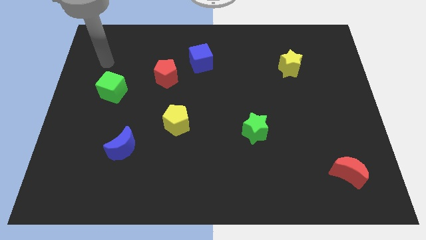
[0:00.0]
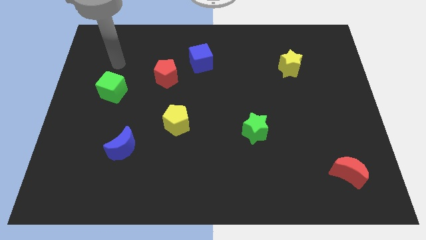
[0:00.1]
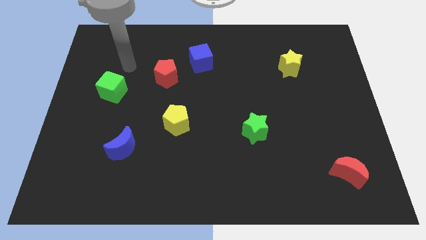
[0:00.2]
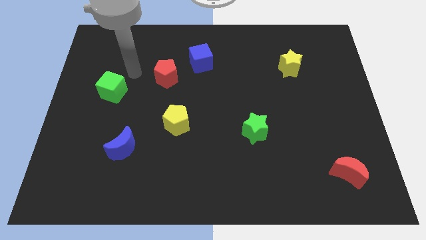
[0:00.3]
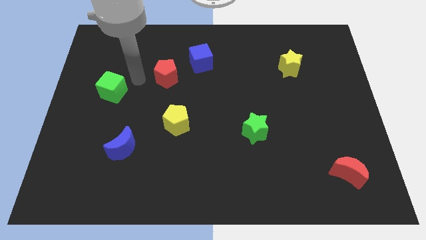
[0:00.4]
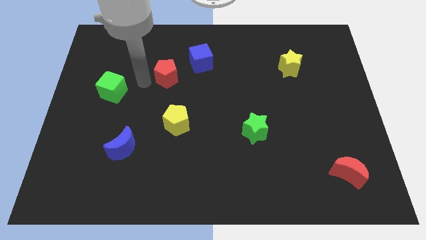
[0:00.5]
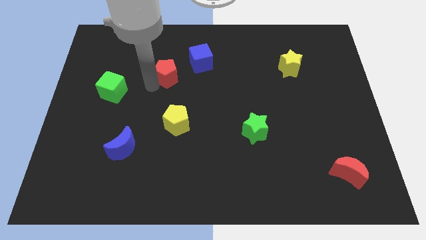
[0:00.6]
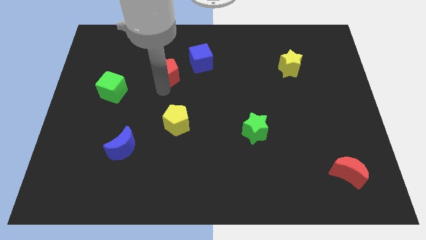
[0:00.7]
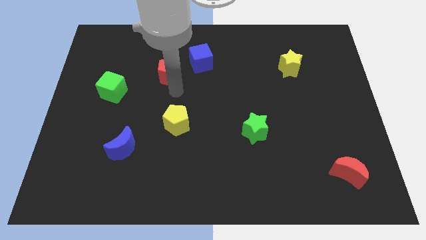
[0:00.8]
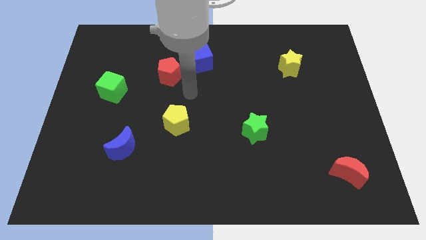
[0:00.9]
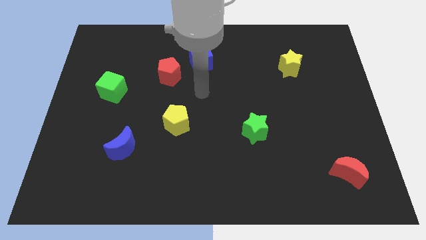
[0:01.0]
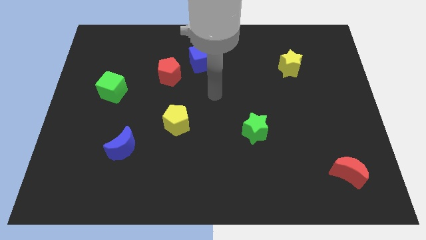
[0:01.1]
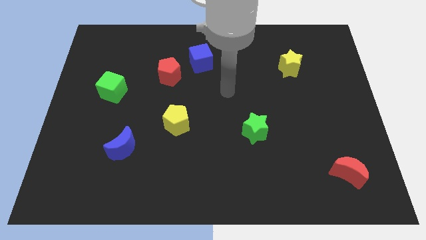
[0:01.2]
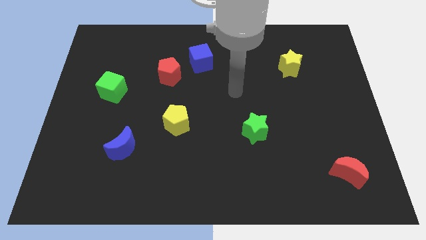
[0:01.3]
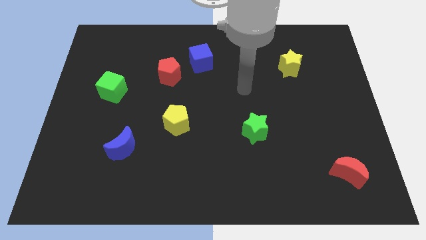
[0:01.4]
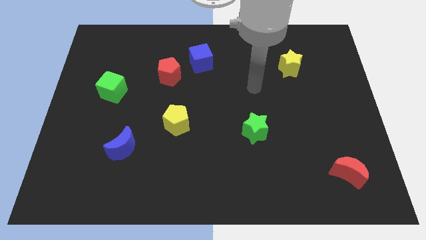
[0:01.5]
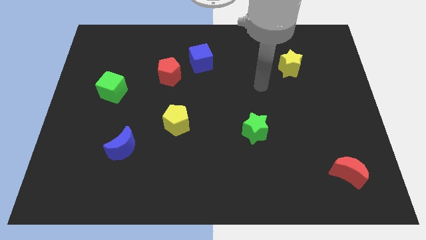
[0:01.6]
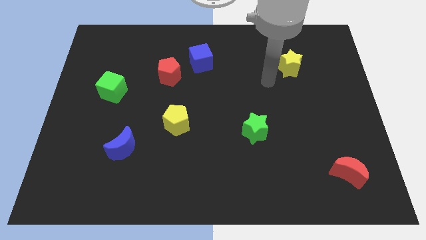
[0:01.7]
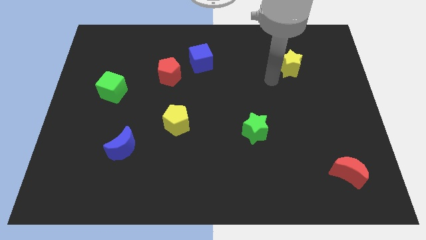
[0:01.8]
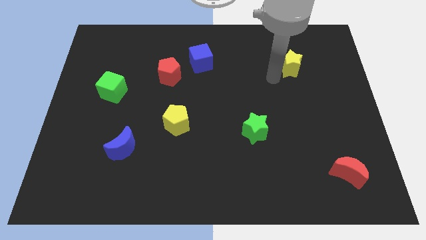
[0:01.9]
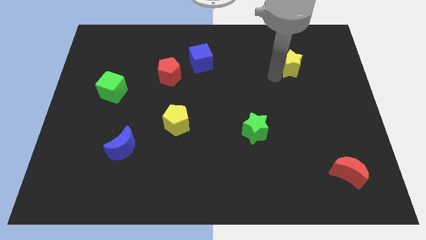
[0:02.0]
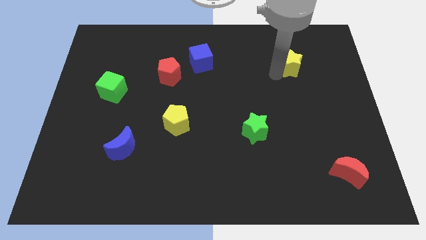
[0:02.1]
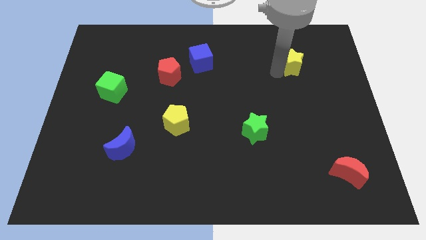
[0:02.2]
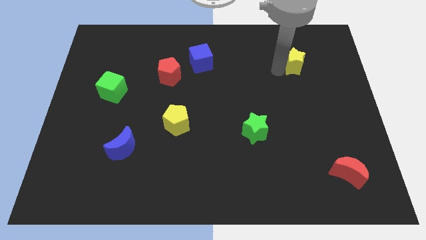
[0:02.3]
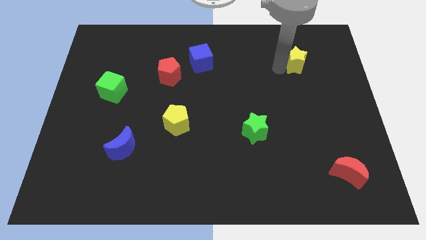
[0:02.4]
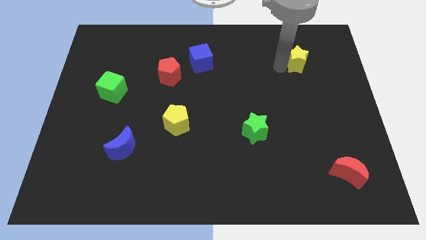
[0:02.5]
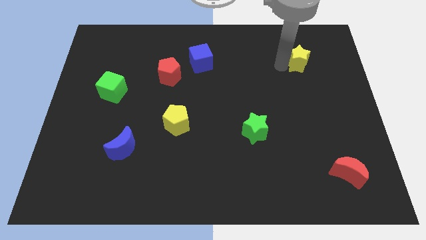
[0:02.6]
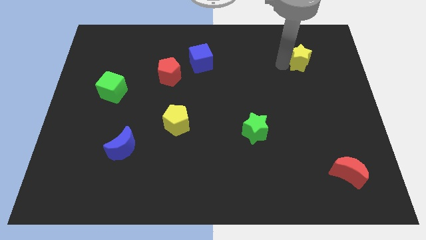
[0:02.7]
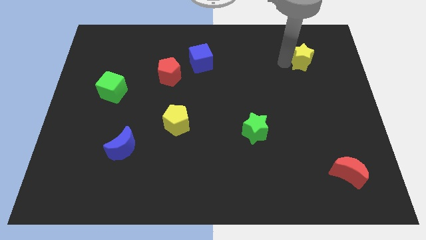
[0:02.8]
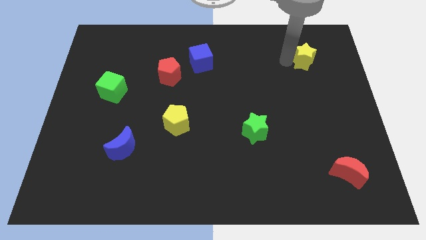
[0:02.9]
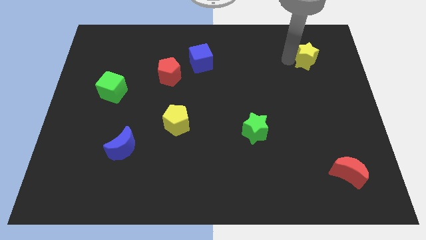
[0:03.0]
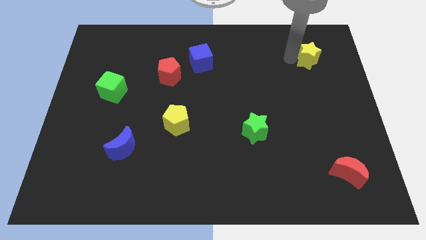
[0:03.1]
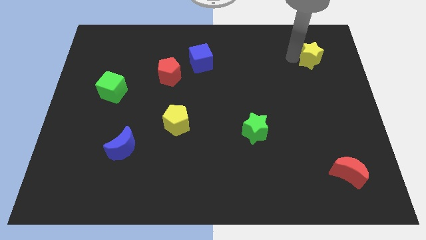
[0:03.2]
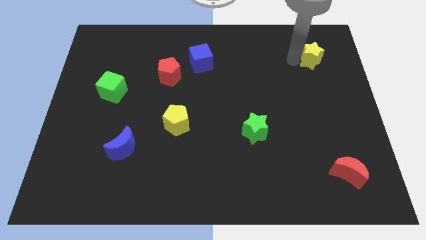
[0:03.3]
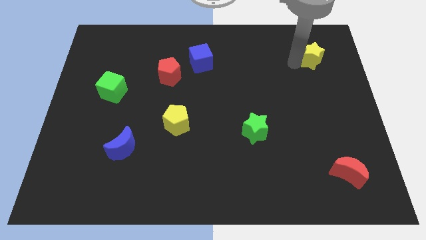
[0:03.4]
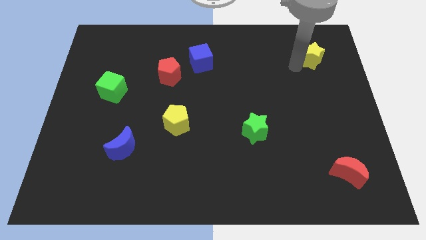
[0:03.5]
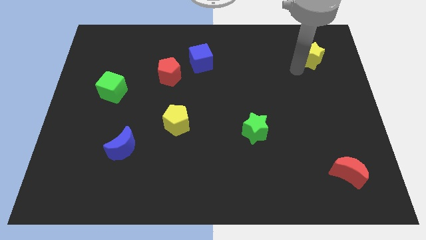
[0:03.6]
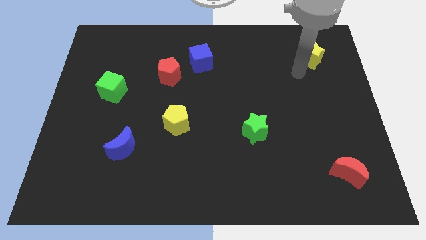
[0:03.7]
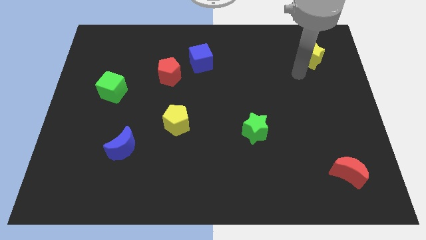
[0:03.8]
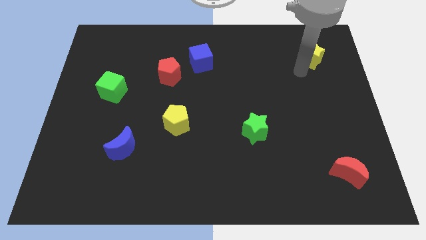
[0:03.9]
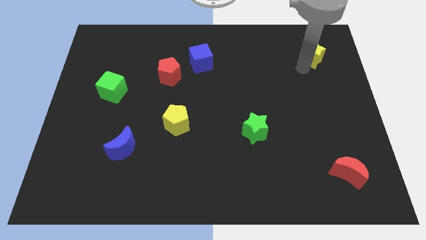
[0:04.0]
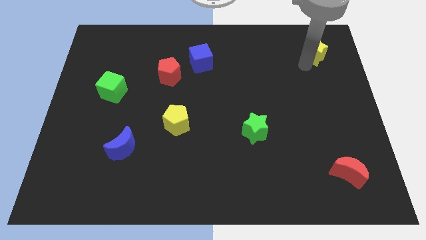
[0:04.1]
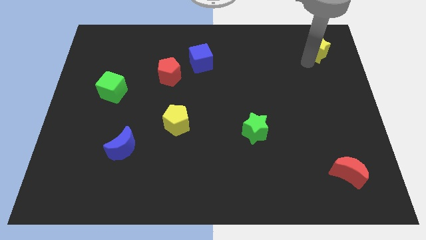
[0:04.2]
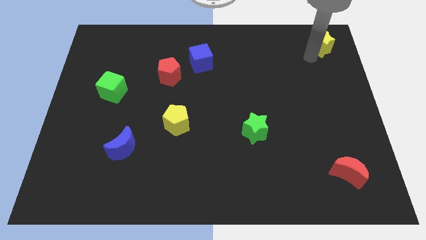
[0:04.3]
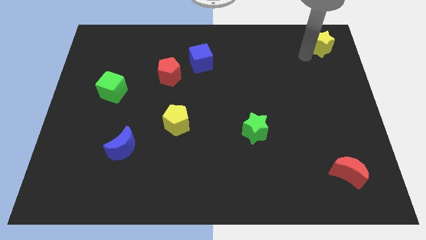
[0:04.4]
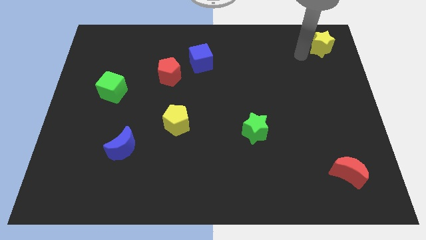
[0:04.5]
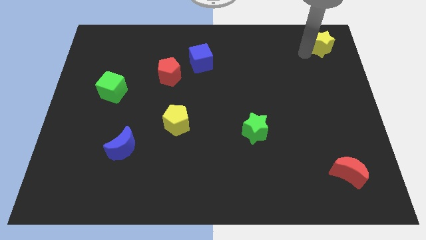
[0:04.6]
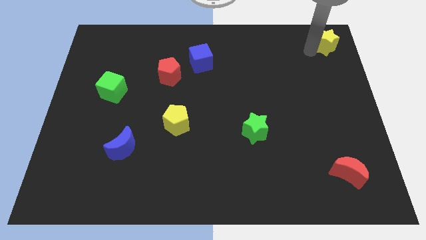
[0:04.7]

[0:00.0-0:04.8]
push the yellow star to the upper right corner

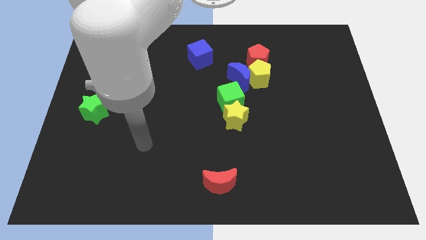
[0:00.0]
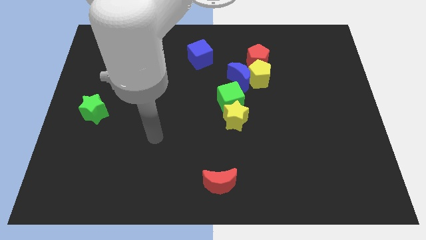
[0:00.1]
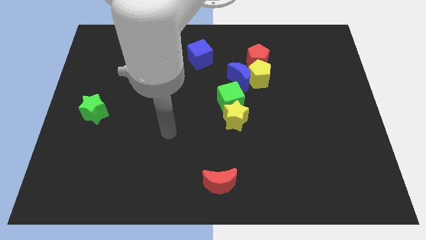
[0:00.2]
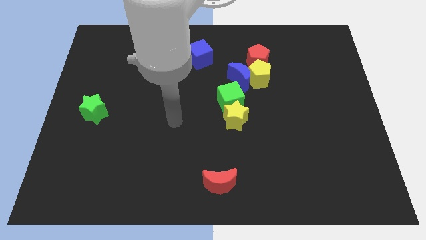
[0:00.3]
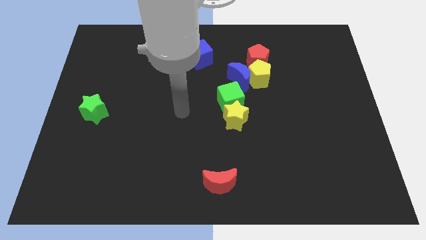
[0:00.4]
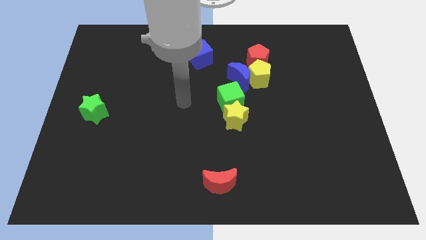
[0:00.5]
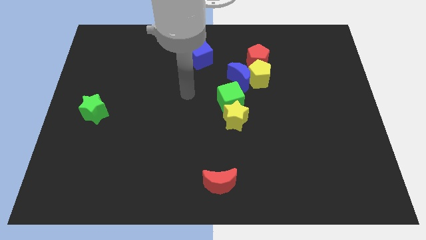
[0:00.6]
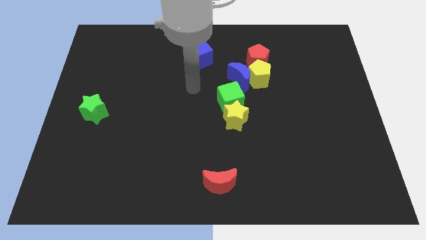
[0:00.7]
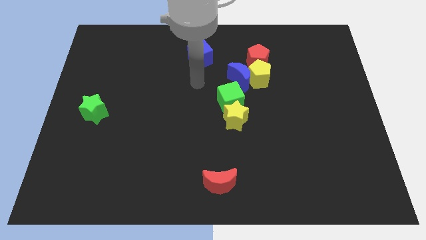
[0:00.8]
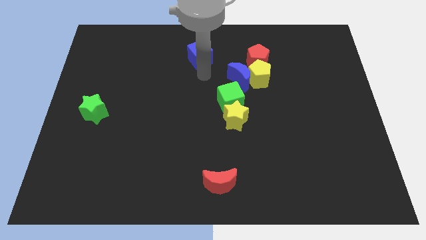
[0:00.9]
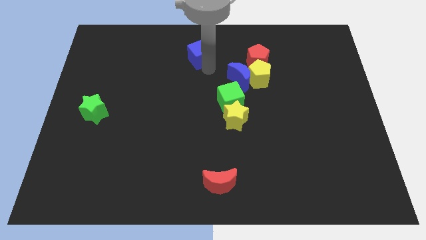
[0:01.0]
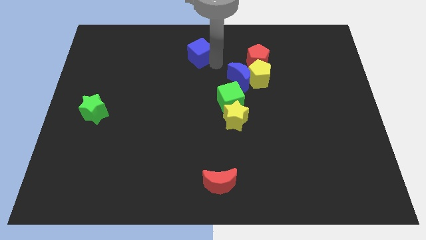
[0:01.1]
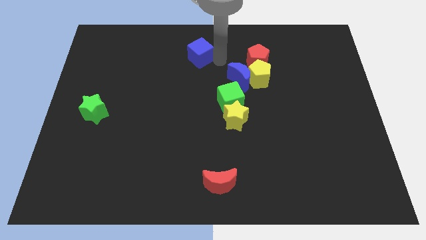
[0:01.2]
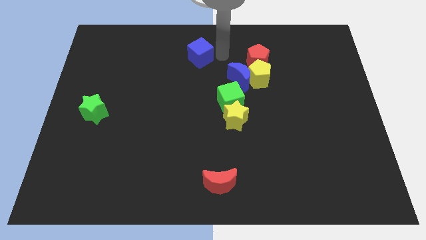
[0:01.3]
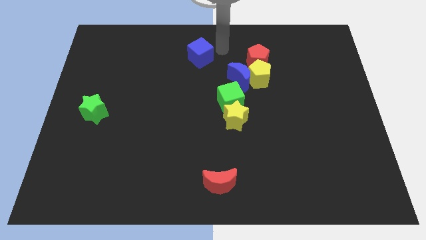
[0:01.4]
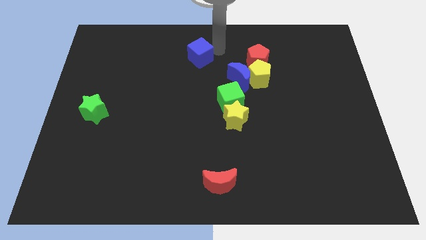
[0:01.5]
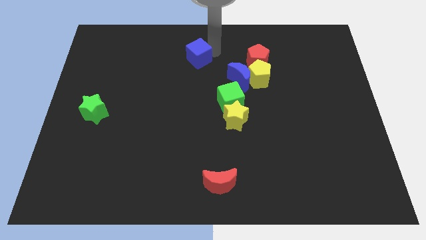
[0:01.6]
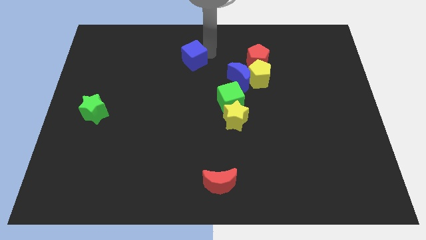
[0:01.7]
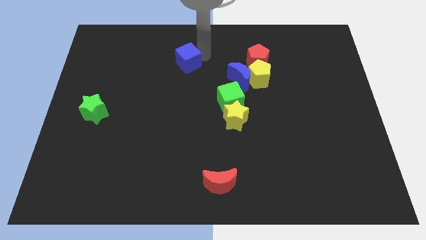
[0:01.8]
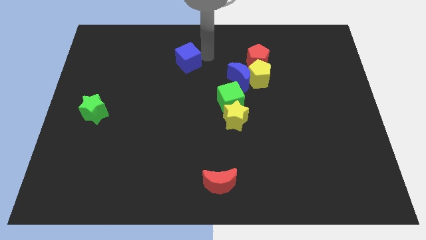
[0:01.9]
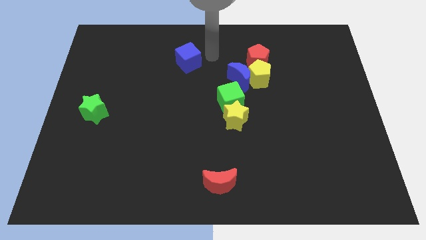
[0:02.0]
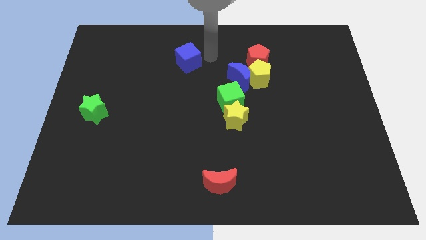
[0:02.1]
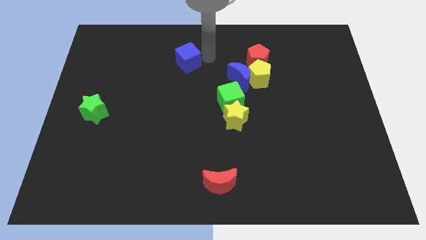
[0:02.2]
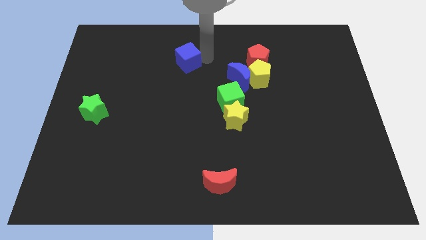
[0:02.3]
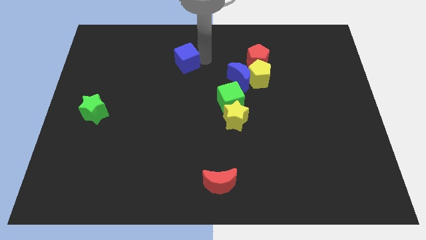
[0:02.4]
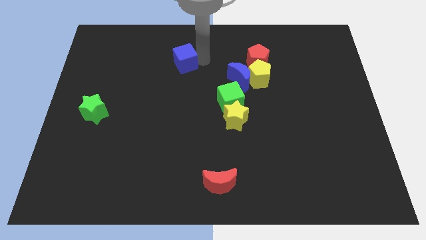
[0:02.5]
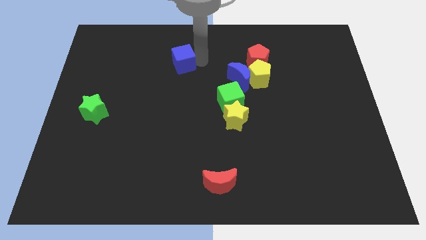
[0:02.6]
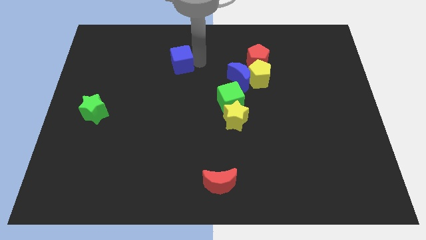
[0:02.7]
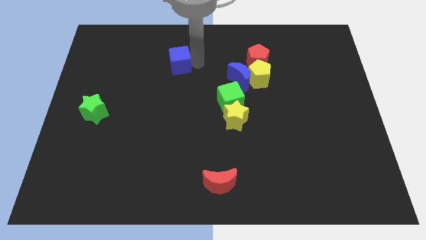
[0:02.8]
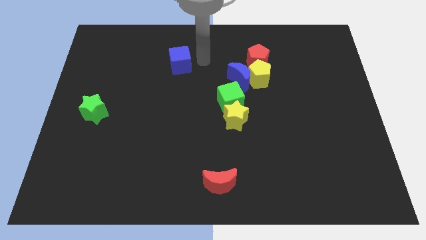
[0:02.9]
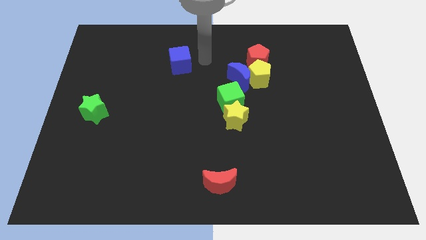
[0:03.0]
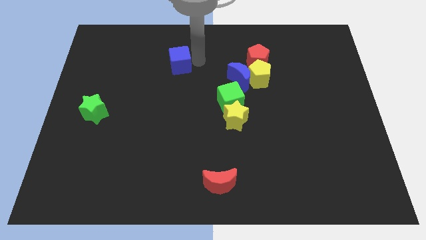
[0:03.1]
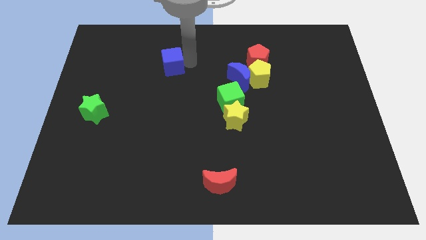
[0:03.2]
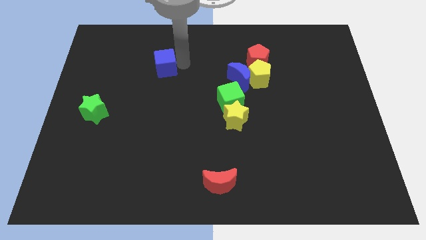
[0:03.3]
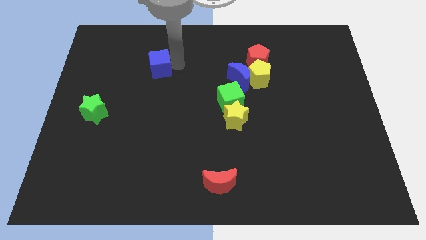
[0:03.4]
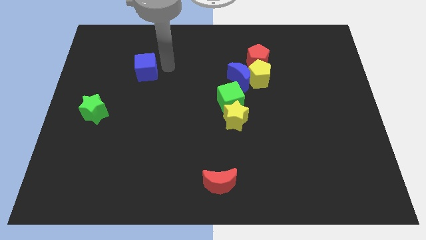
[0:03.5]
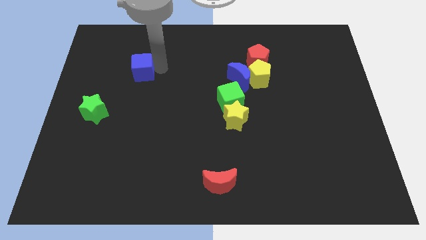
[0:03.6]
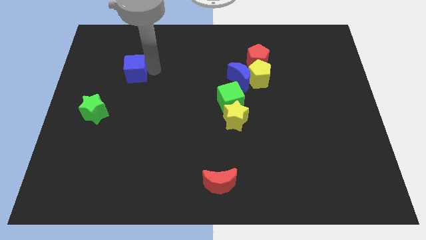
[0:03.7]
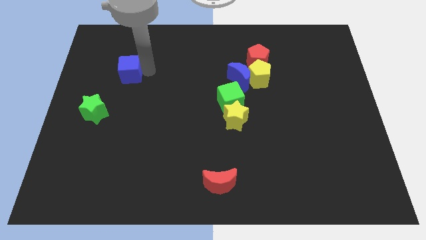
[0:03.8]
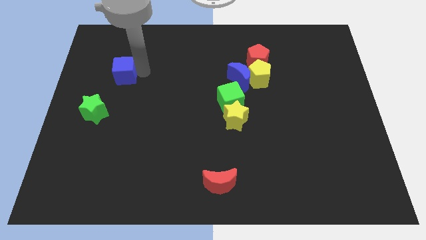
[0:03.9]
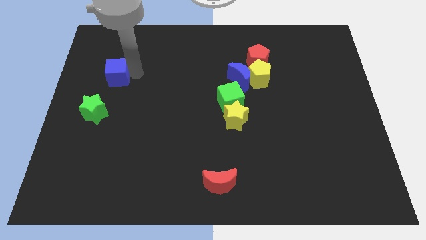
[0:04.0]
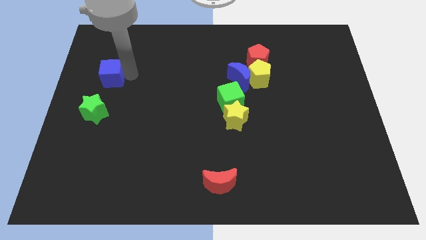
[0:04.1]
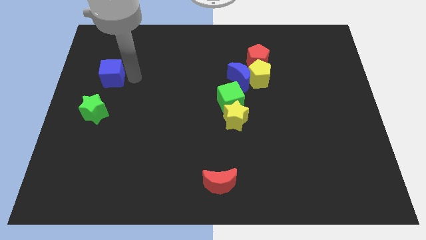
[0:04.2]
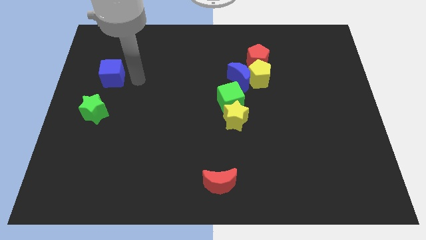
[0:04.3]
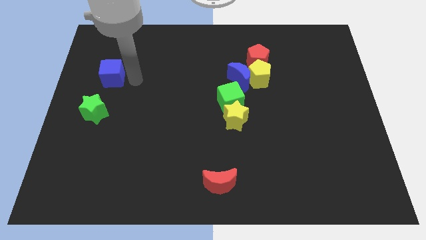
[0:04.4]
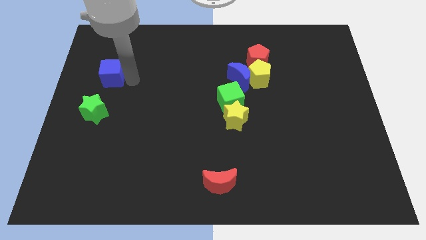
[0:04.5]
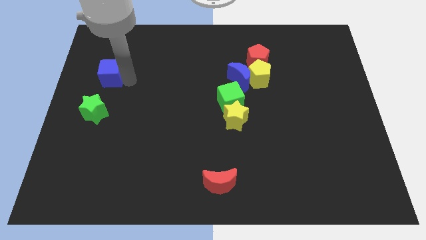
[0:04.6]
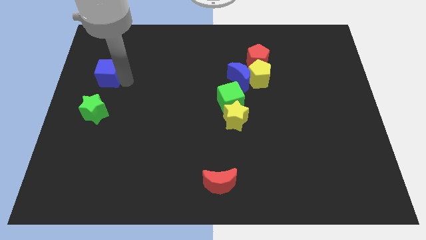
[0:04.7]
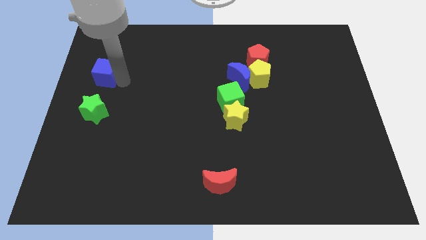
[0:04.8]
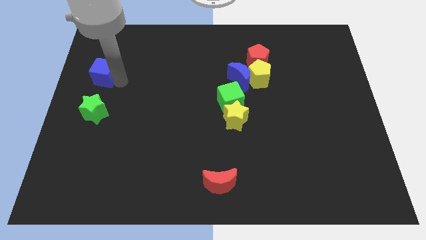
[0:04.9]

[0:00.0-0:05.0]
move the blue cube to the left side of the board
